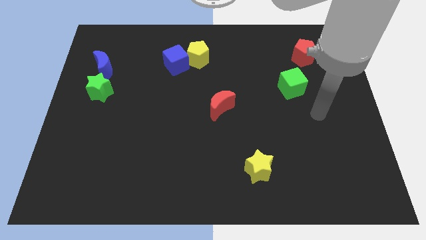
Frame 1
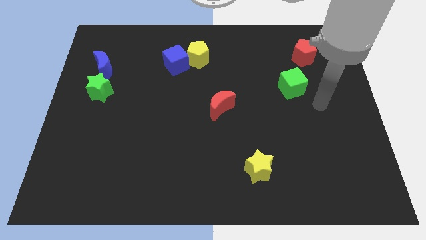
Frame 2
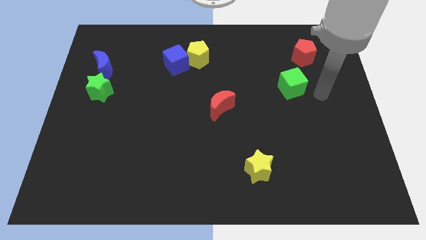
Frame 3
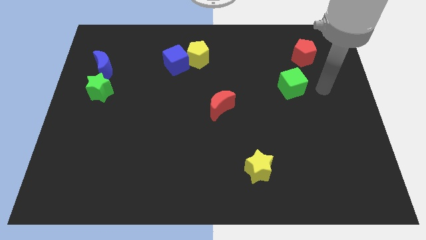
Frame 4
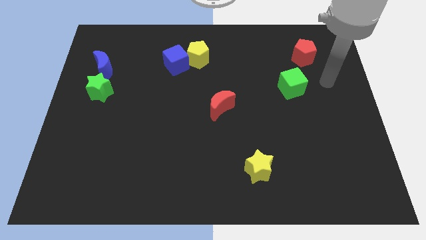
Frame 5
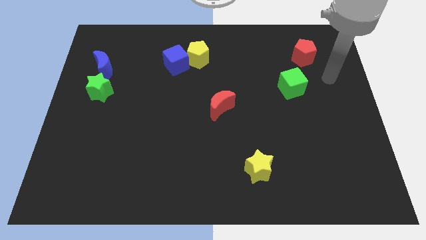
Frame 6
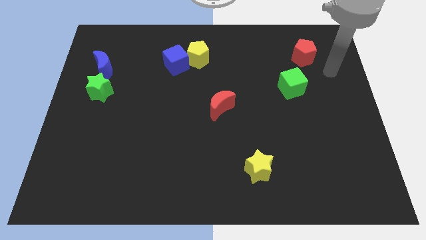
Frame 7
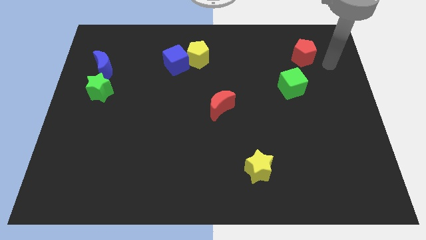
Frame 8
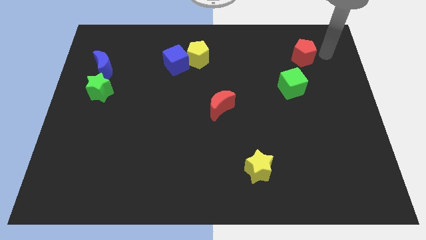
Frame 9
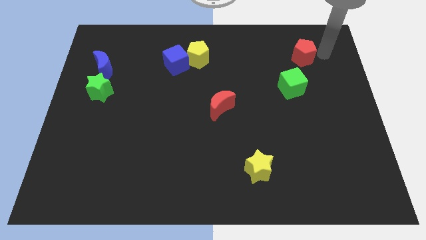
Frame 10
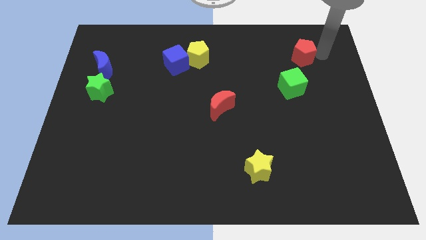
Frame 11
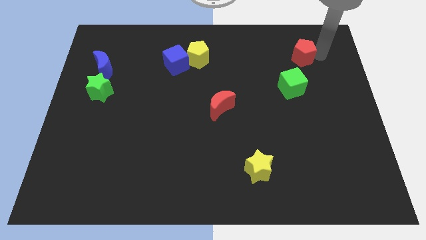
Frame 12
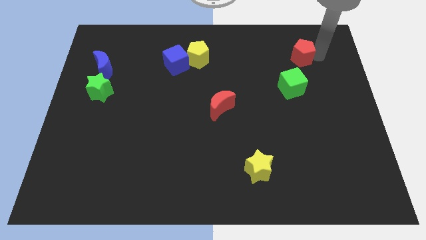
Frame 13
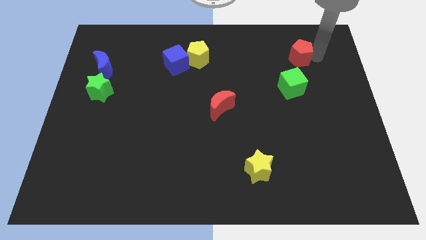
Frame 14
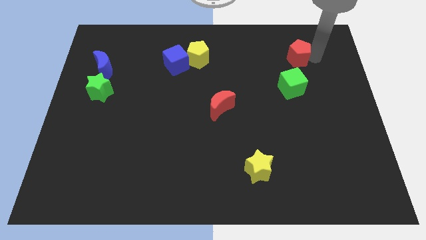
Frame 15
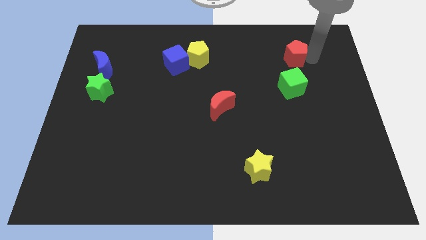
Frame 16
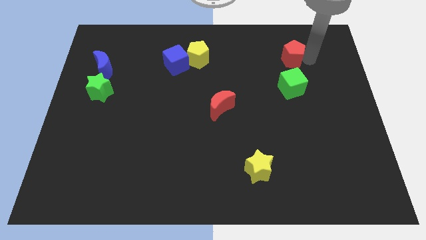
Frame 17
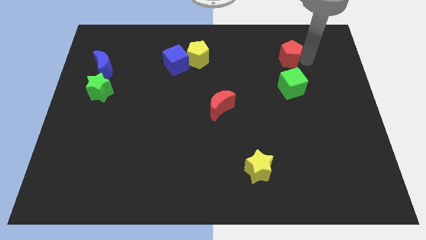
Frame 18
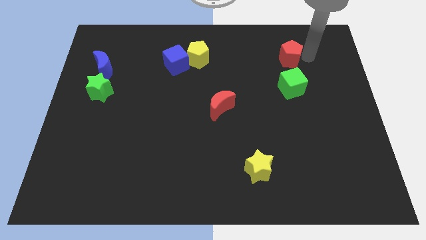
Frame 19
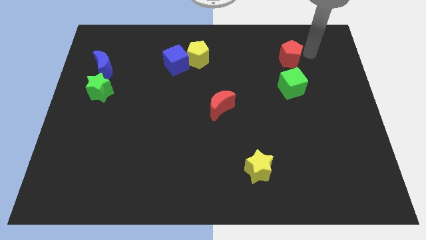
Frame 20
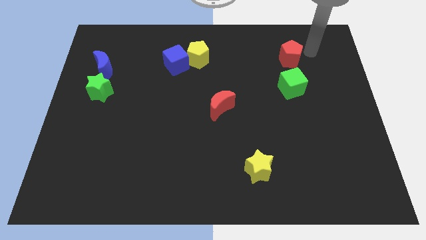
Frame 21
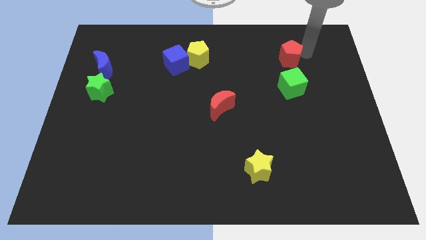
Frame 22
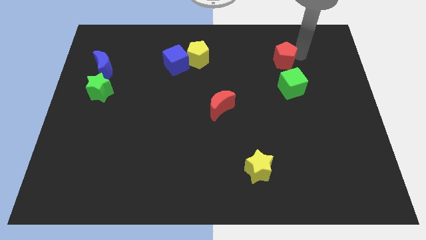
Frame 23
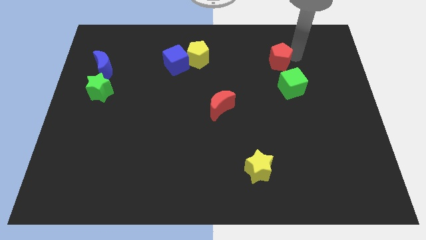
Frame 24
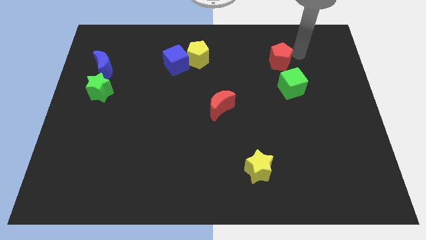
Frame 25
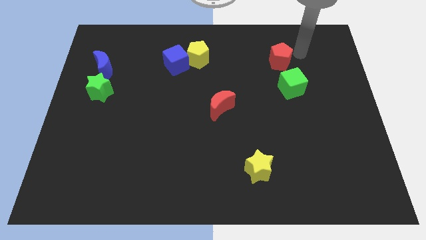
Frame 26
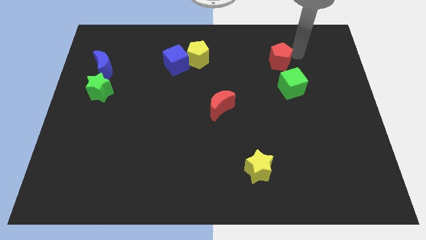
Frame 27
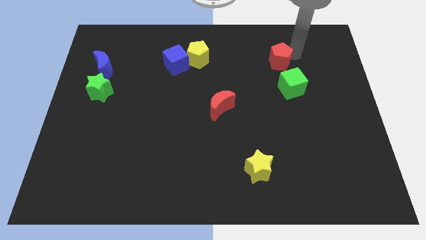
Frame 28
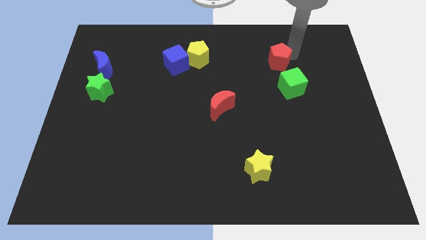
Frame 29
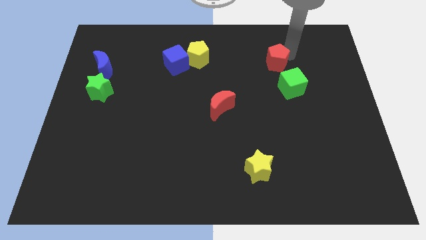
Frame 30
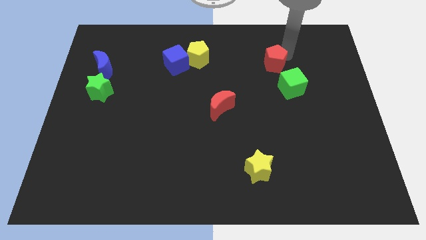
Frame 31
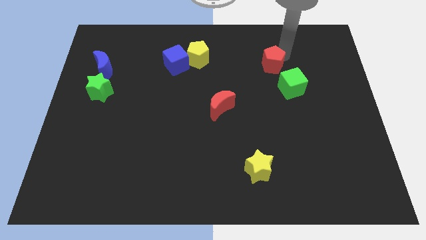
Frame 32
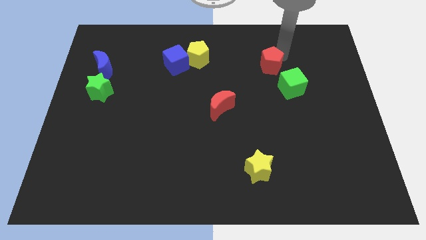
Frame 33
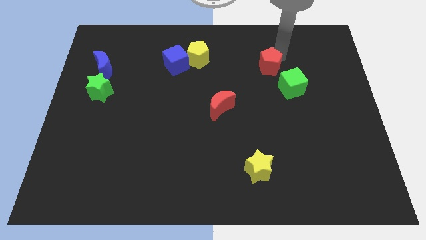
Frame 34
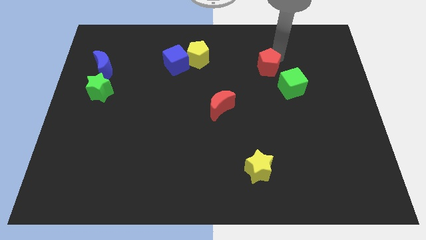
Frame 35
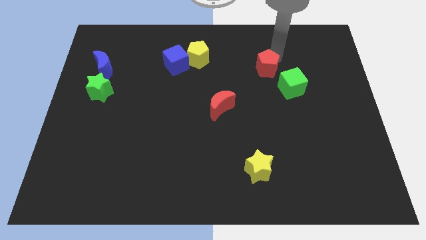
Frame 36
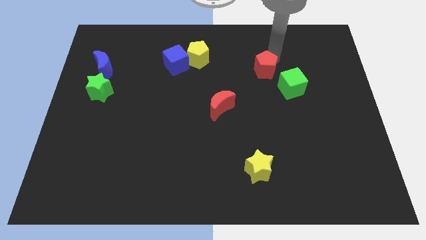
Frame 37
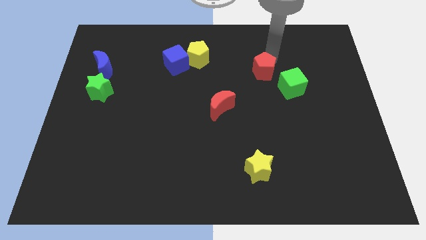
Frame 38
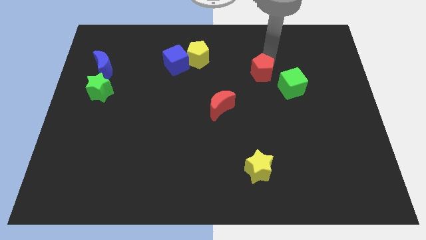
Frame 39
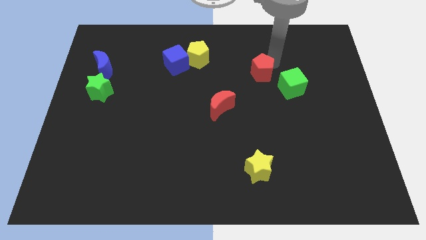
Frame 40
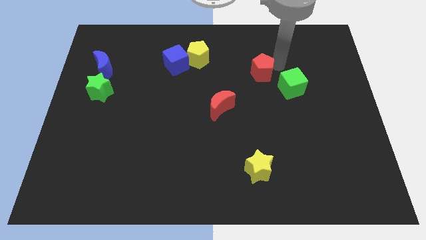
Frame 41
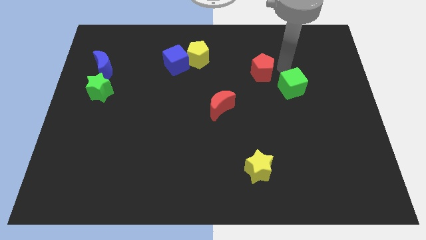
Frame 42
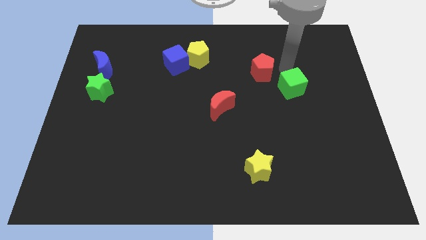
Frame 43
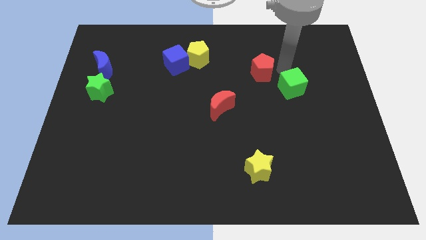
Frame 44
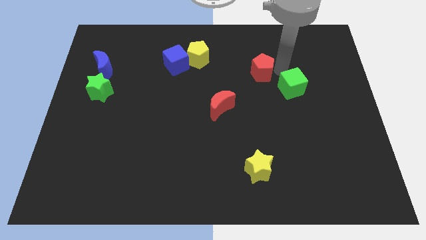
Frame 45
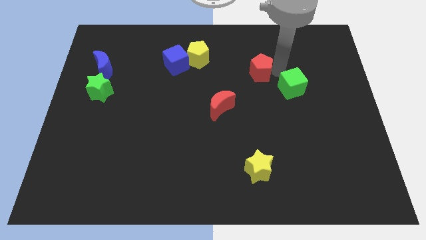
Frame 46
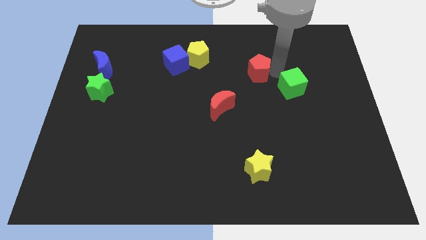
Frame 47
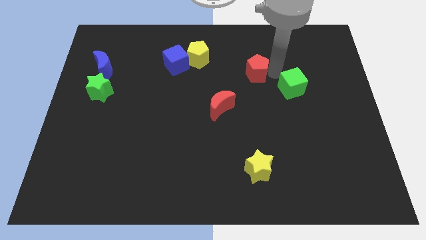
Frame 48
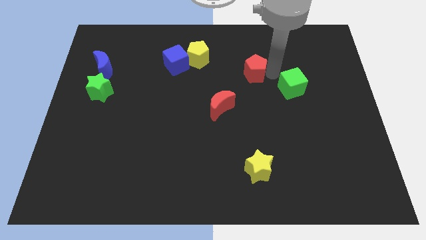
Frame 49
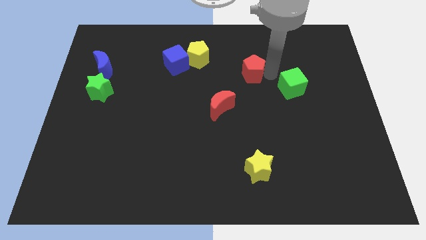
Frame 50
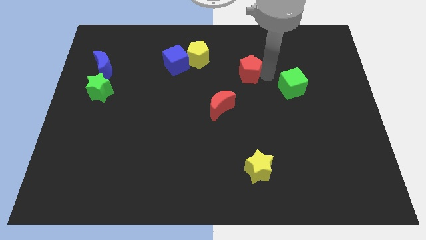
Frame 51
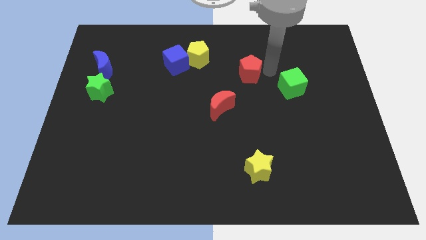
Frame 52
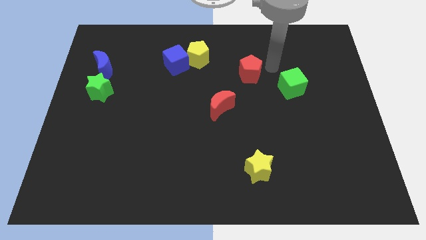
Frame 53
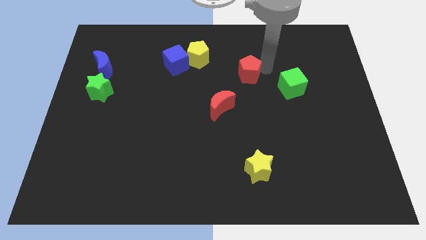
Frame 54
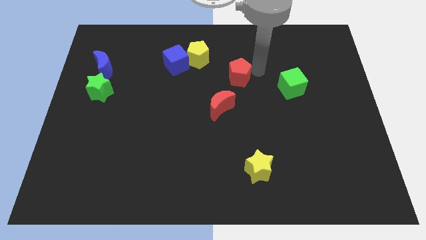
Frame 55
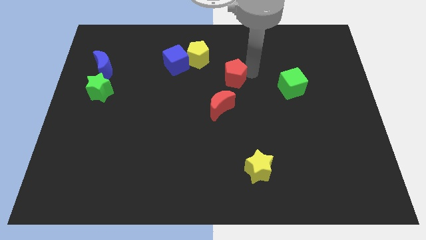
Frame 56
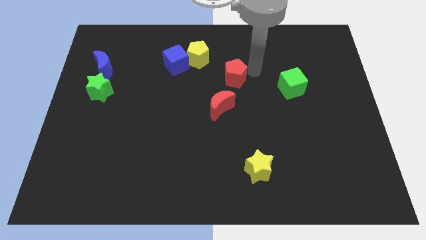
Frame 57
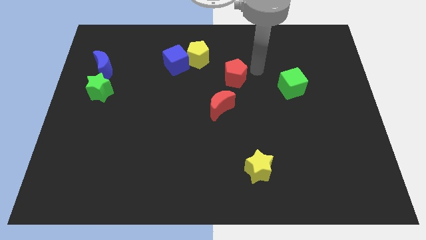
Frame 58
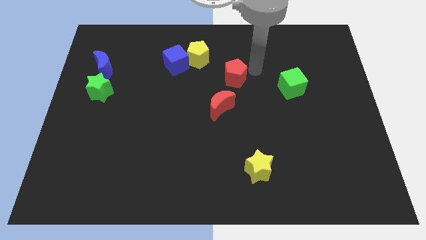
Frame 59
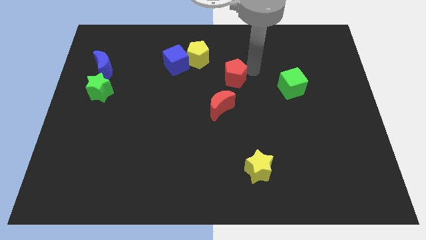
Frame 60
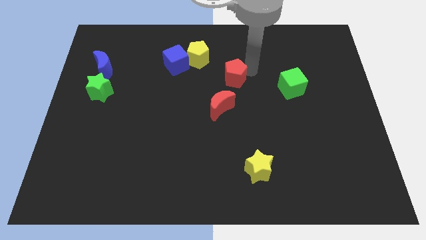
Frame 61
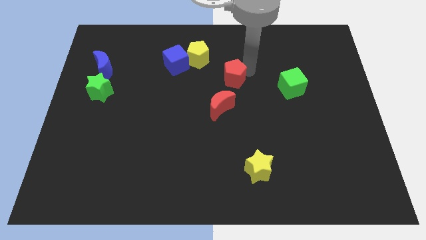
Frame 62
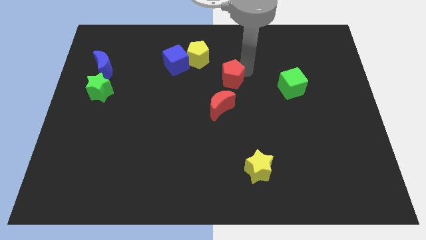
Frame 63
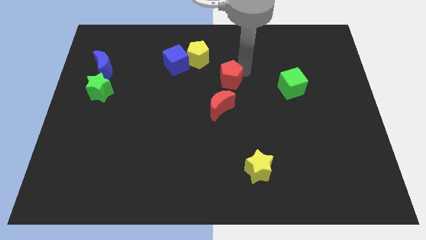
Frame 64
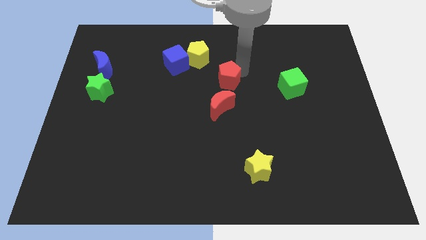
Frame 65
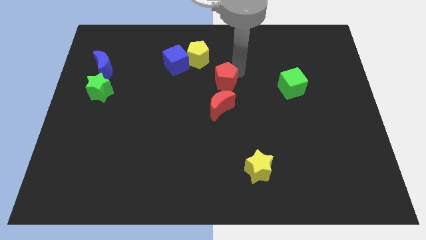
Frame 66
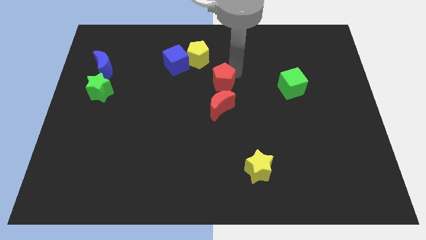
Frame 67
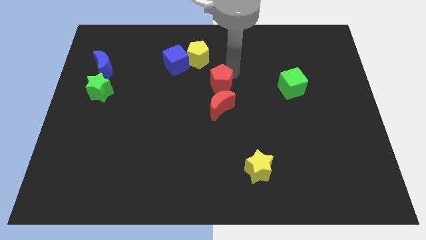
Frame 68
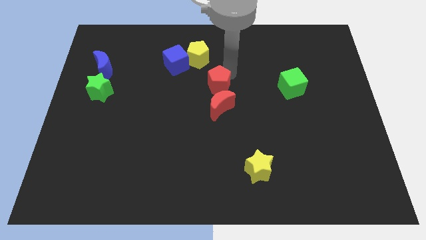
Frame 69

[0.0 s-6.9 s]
slide the red pentagon to the top left side of the red moon

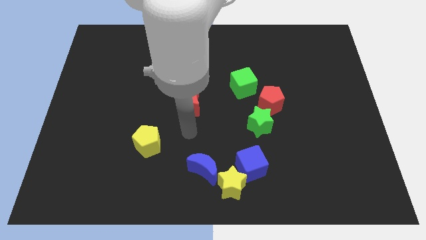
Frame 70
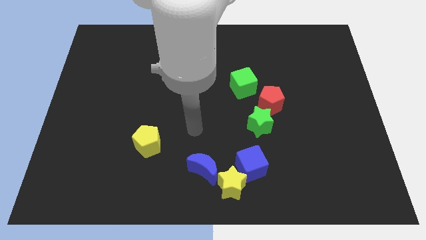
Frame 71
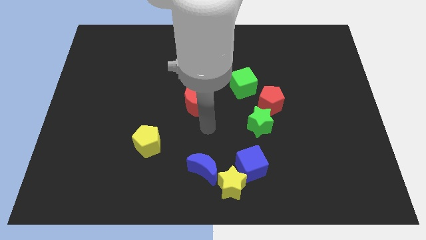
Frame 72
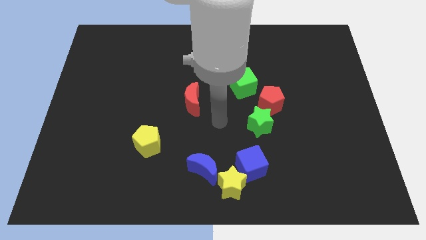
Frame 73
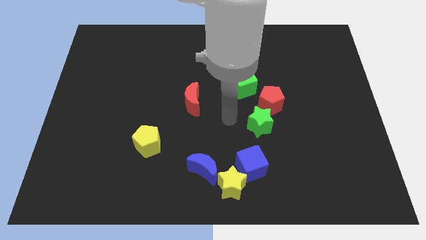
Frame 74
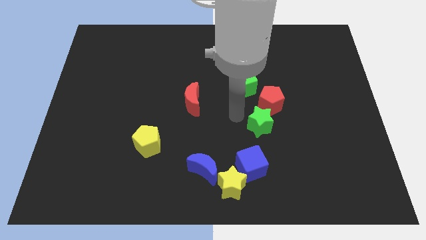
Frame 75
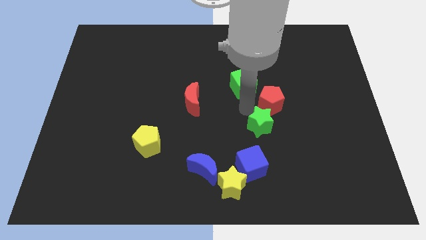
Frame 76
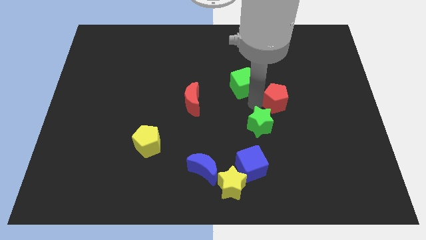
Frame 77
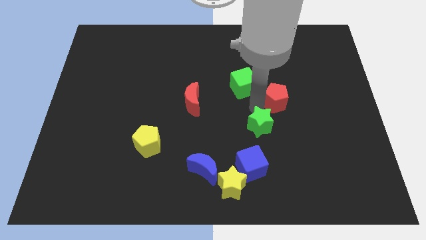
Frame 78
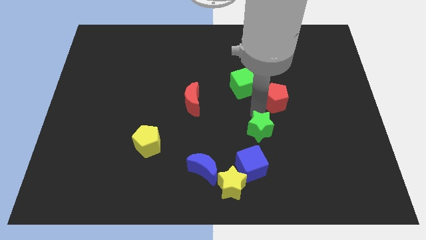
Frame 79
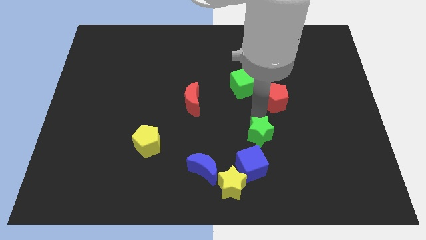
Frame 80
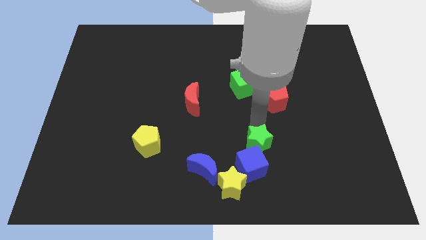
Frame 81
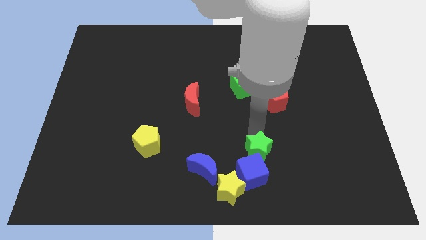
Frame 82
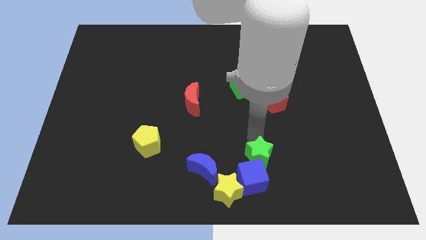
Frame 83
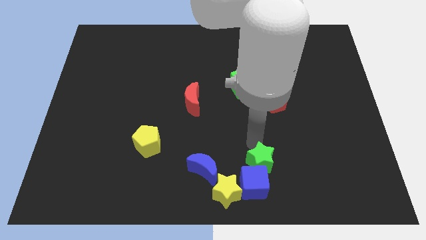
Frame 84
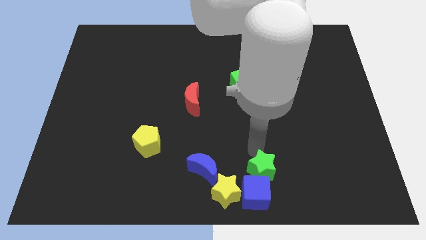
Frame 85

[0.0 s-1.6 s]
slide the green star to the right of the yellow star
